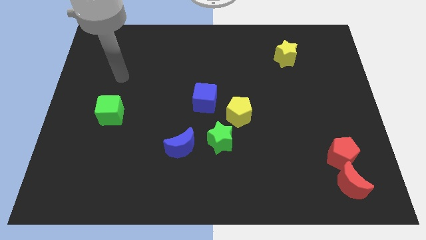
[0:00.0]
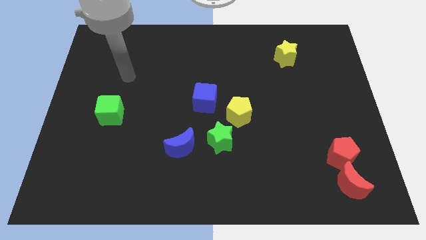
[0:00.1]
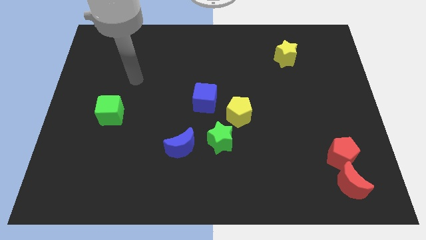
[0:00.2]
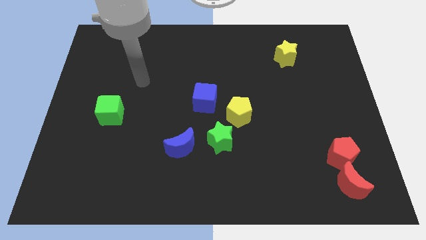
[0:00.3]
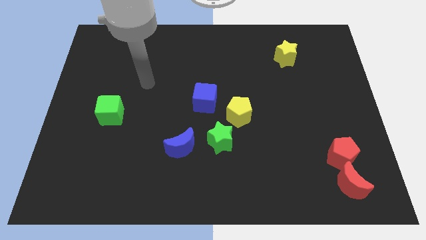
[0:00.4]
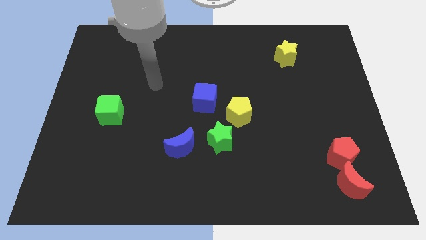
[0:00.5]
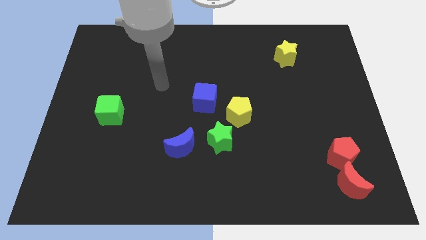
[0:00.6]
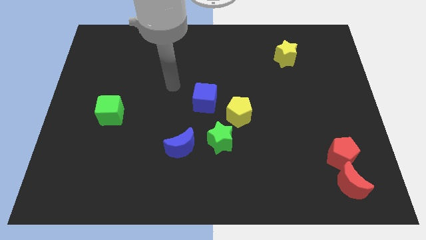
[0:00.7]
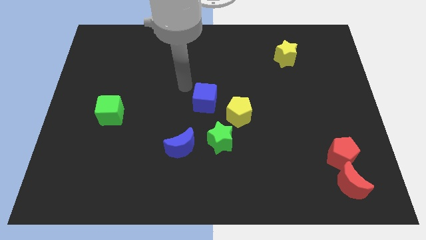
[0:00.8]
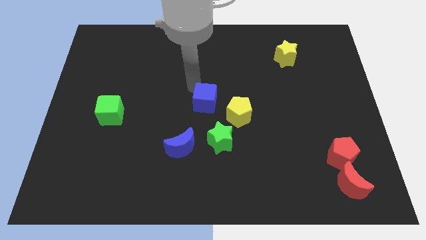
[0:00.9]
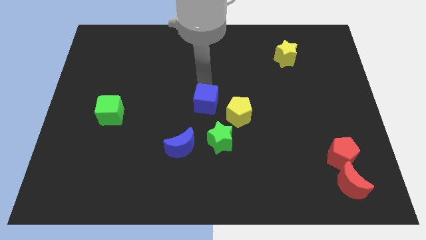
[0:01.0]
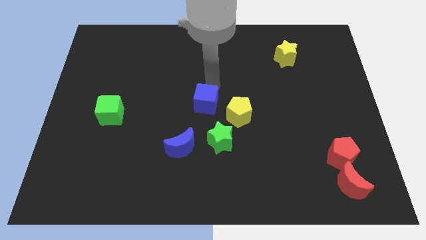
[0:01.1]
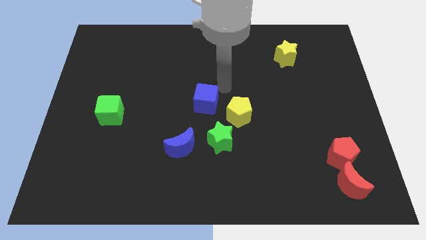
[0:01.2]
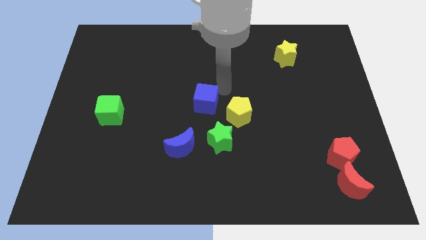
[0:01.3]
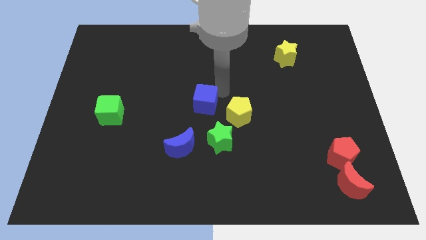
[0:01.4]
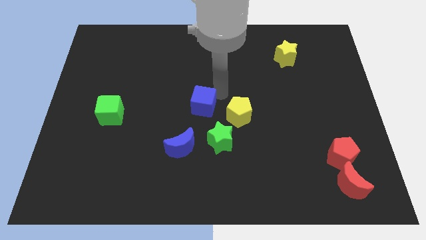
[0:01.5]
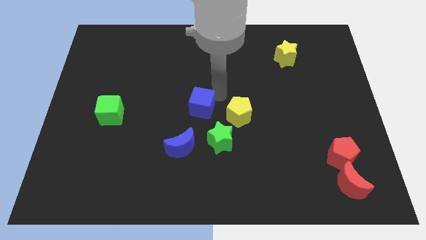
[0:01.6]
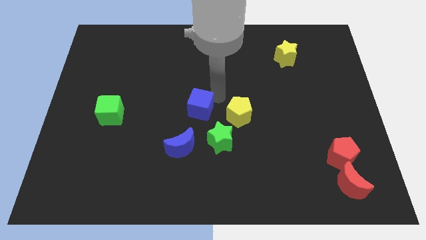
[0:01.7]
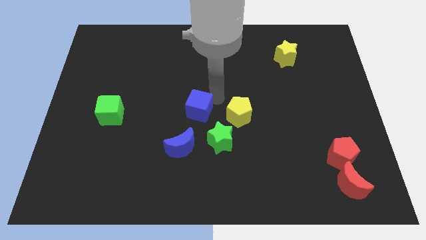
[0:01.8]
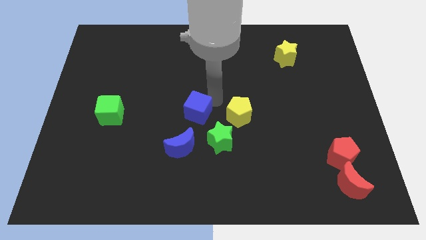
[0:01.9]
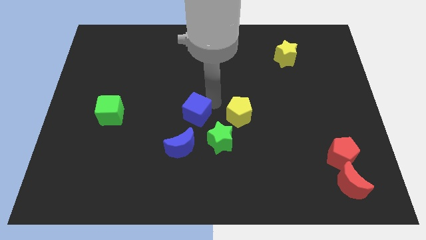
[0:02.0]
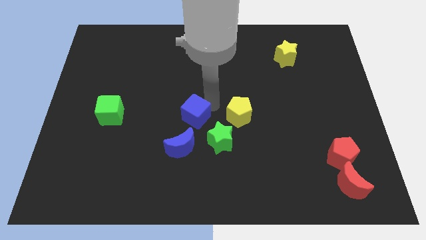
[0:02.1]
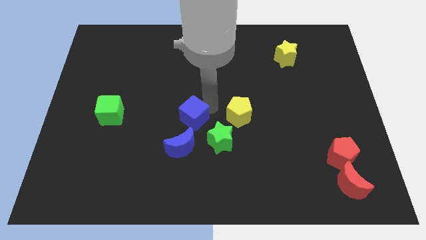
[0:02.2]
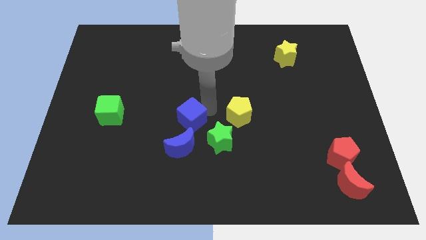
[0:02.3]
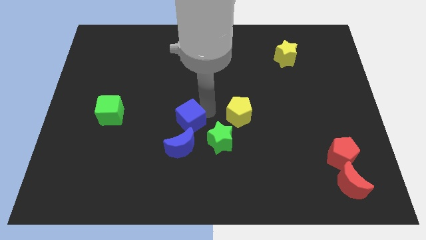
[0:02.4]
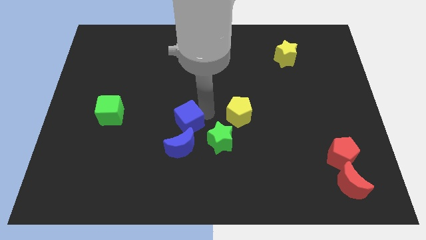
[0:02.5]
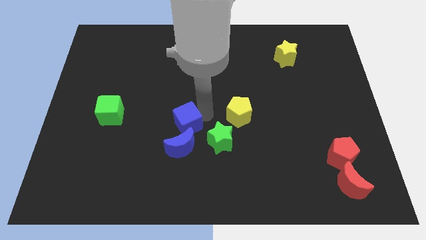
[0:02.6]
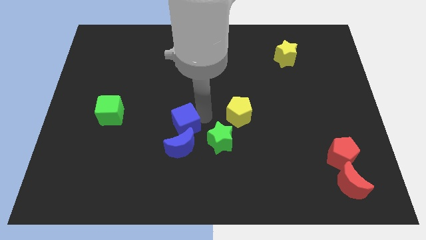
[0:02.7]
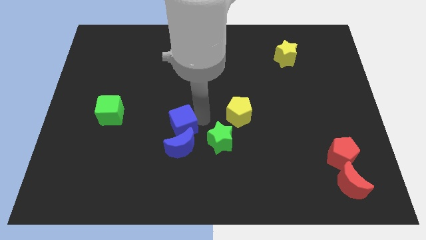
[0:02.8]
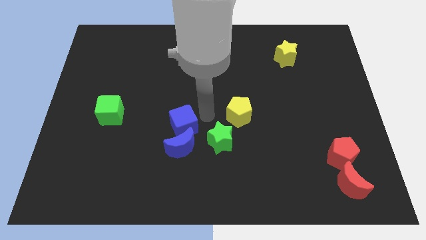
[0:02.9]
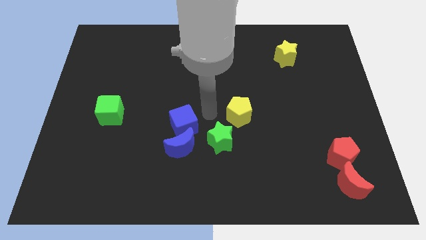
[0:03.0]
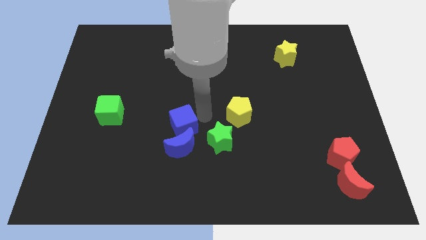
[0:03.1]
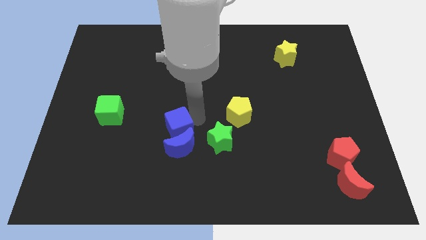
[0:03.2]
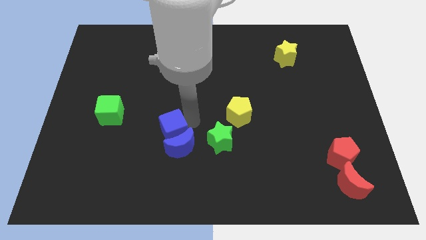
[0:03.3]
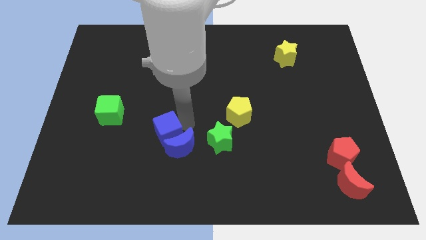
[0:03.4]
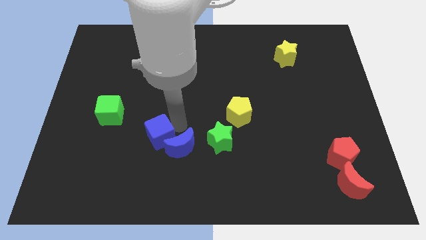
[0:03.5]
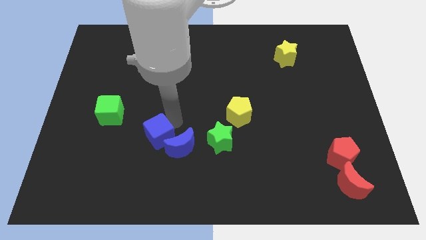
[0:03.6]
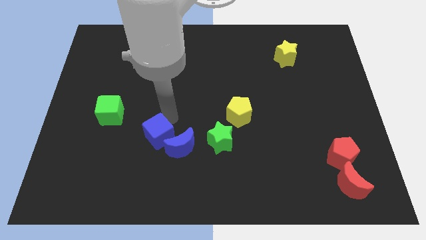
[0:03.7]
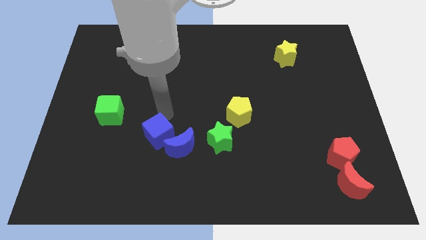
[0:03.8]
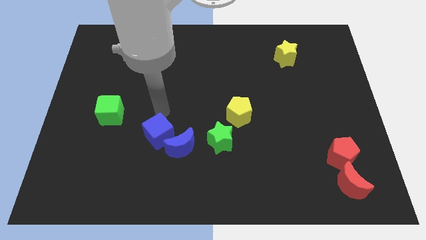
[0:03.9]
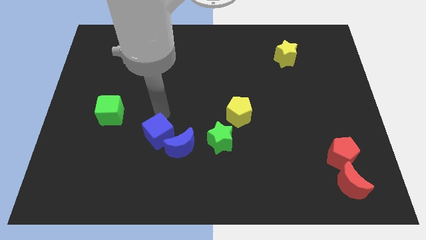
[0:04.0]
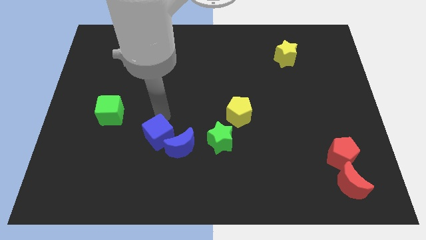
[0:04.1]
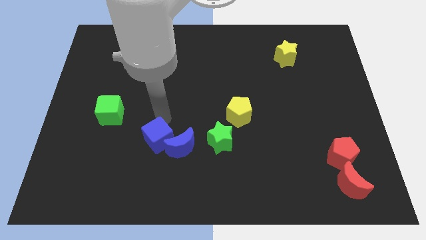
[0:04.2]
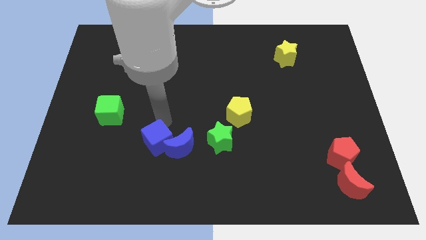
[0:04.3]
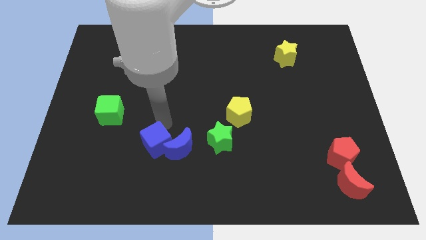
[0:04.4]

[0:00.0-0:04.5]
push the blue cube downwards a little

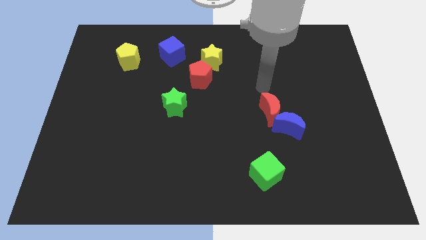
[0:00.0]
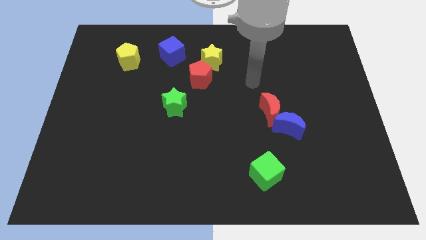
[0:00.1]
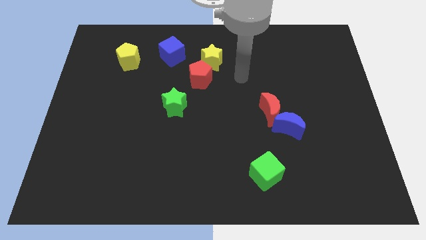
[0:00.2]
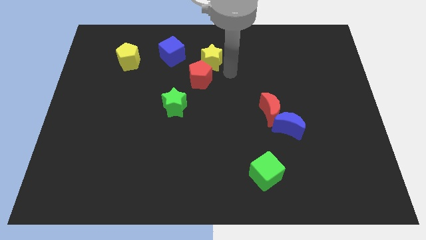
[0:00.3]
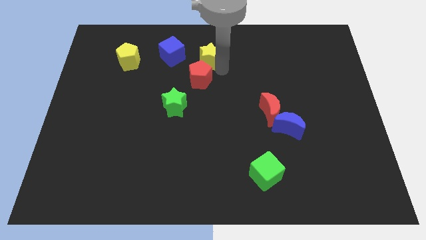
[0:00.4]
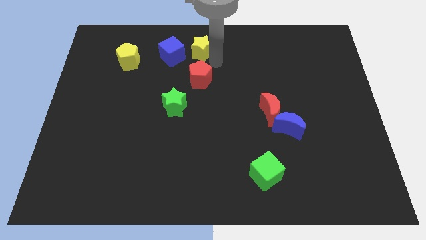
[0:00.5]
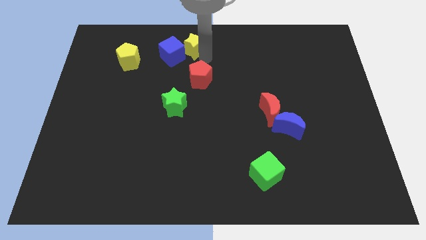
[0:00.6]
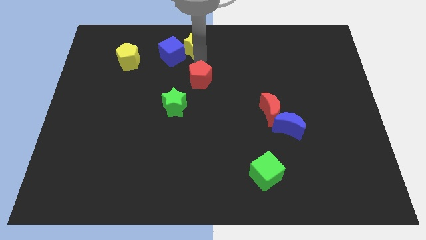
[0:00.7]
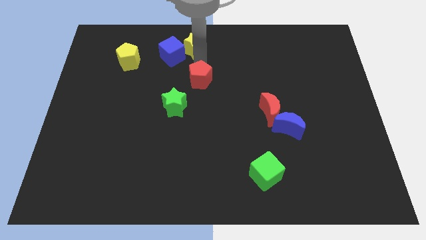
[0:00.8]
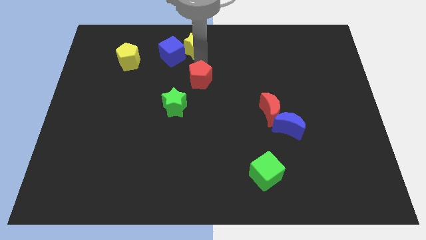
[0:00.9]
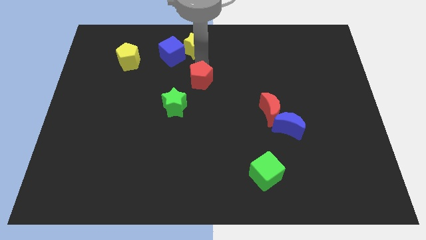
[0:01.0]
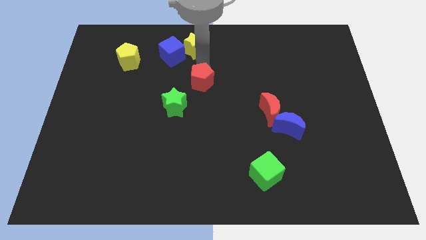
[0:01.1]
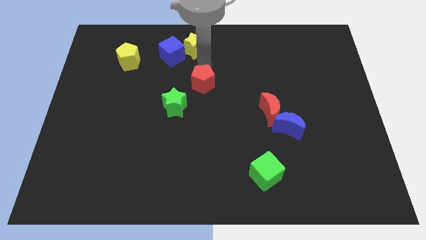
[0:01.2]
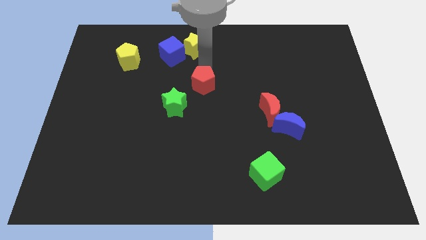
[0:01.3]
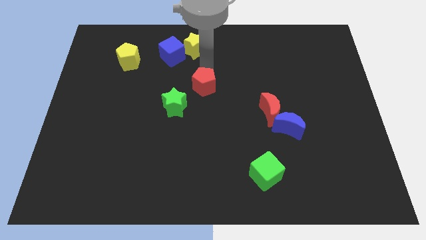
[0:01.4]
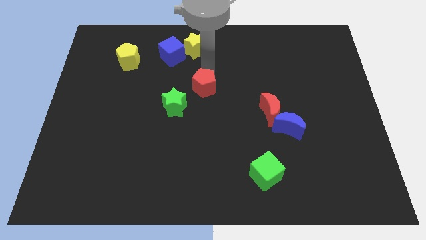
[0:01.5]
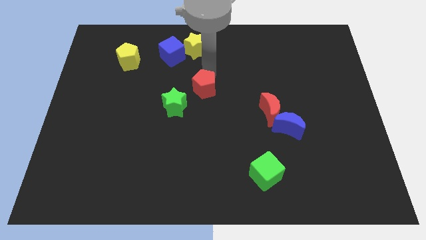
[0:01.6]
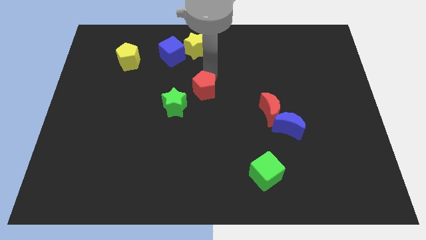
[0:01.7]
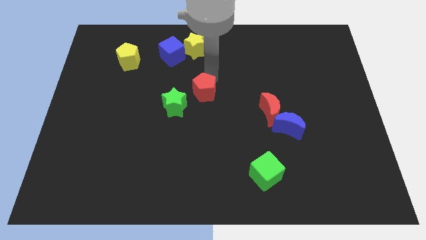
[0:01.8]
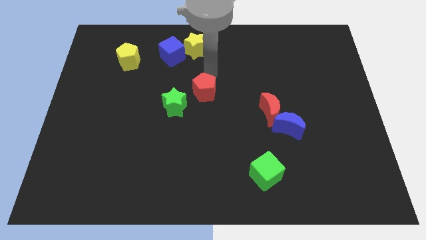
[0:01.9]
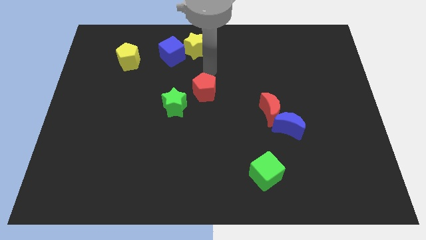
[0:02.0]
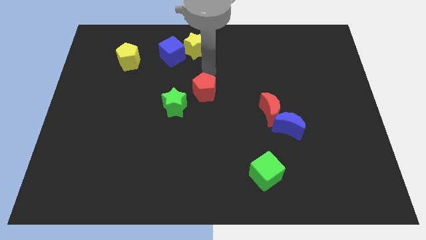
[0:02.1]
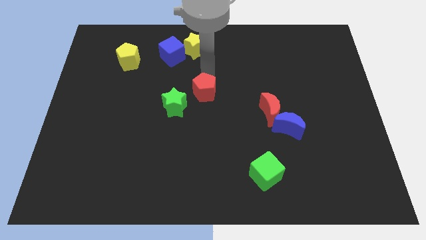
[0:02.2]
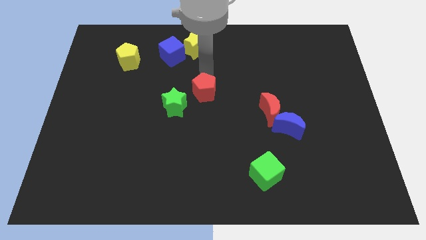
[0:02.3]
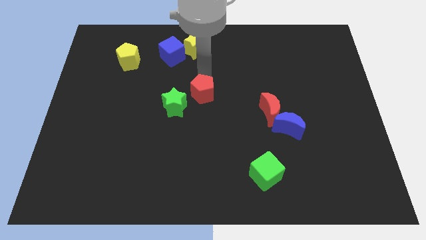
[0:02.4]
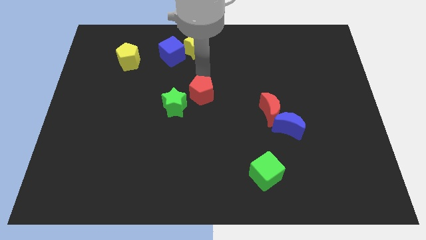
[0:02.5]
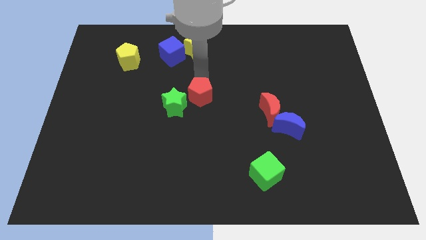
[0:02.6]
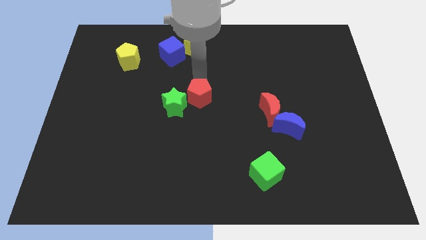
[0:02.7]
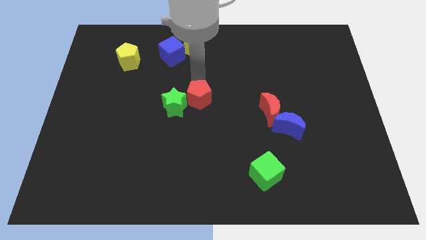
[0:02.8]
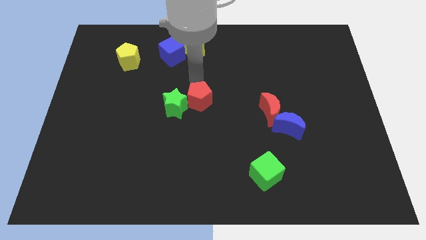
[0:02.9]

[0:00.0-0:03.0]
slide the red pentagon down a bit

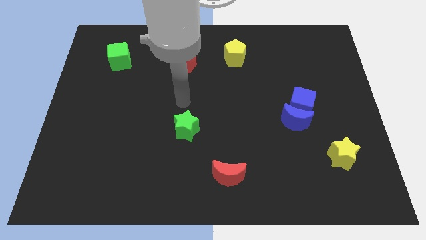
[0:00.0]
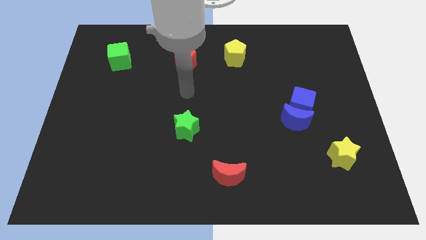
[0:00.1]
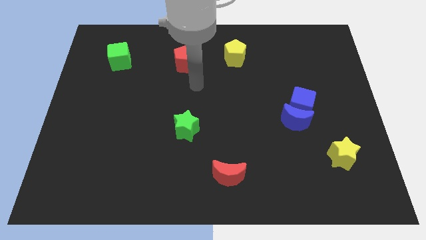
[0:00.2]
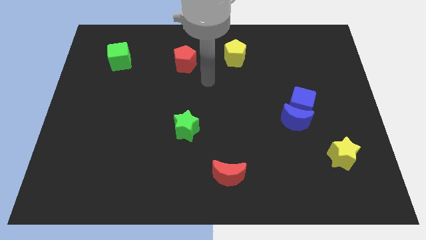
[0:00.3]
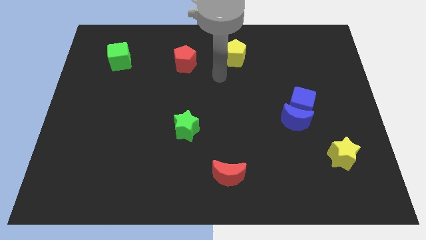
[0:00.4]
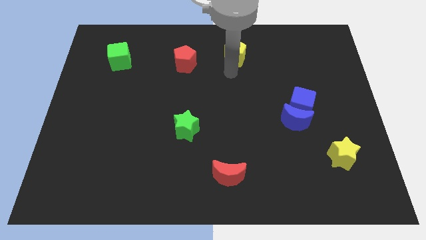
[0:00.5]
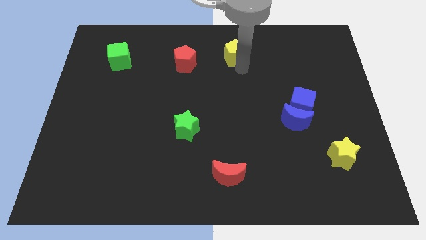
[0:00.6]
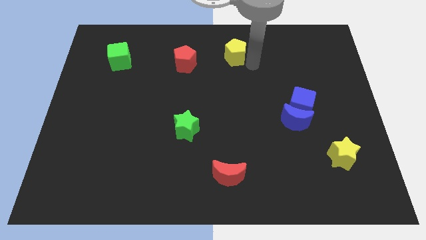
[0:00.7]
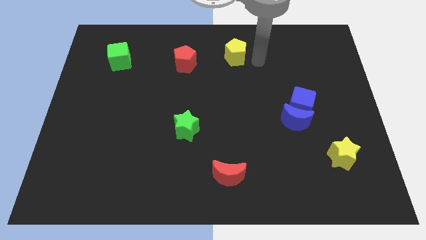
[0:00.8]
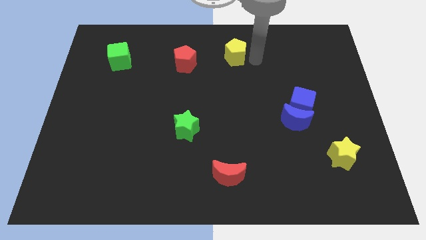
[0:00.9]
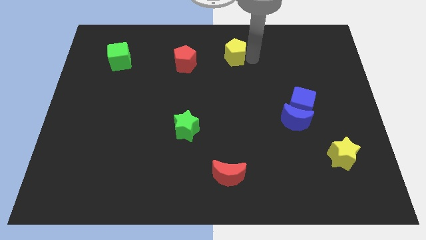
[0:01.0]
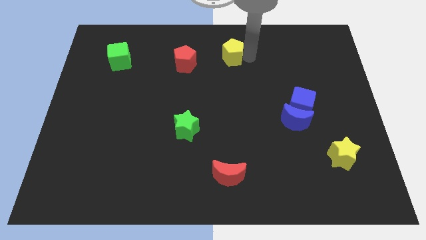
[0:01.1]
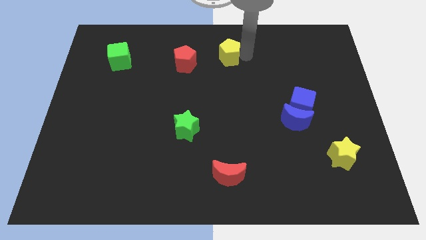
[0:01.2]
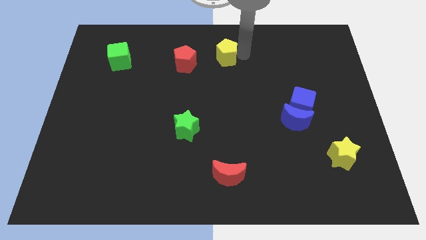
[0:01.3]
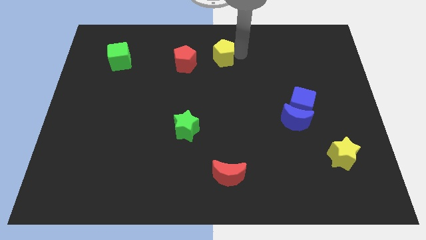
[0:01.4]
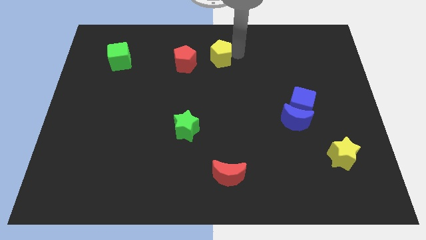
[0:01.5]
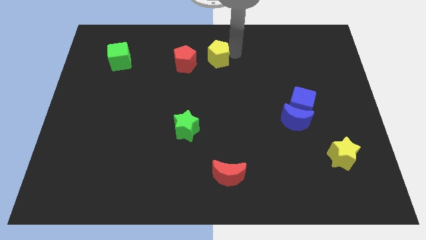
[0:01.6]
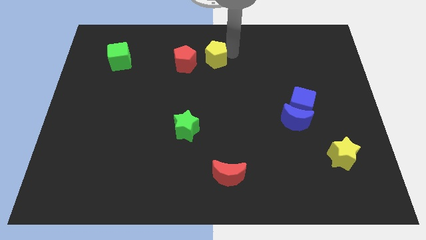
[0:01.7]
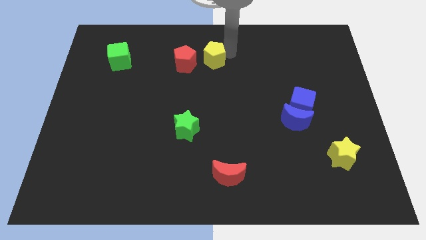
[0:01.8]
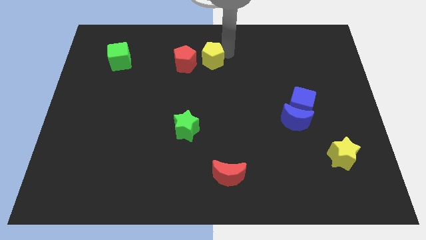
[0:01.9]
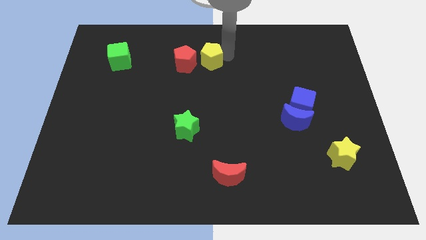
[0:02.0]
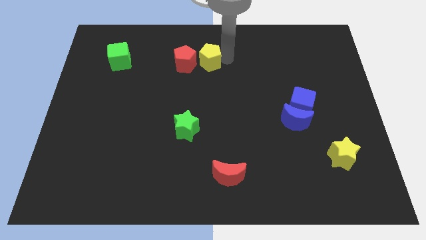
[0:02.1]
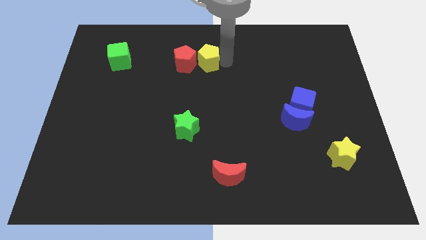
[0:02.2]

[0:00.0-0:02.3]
slightly move the yellow pentagon left
